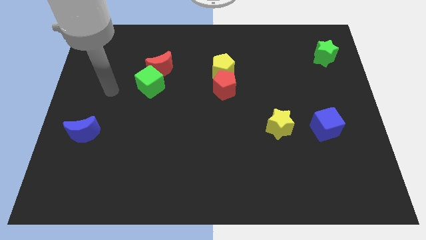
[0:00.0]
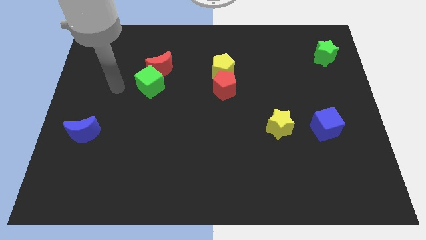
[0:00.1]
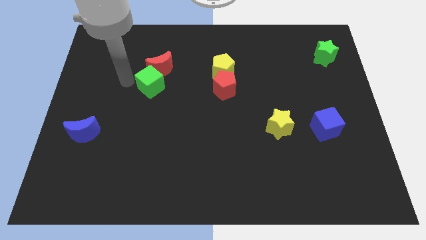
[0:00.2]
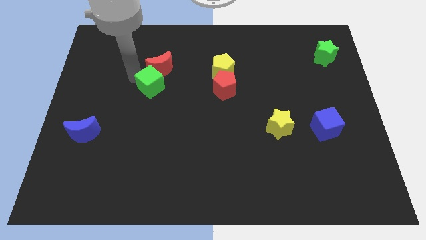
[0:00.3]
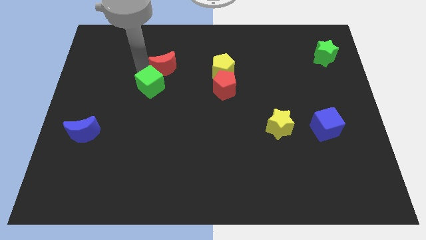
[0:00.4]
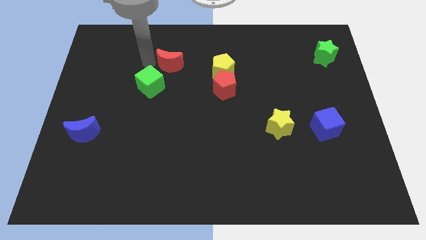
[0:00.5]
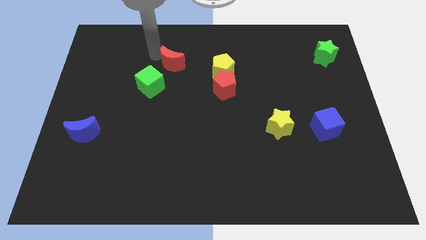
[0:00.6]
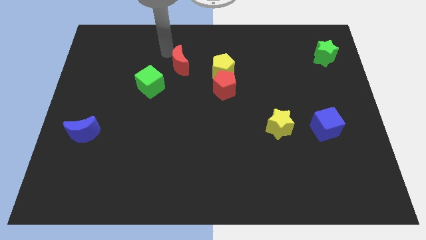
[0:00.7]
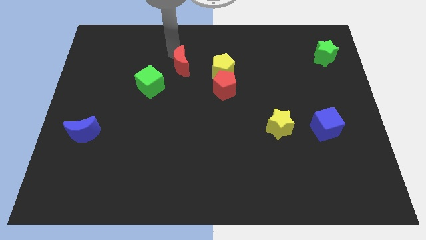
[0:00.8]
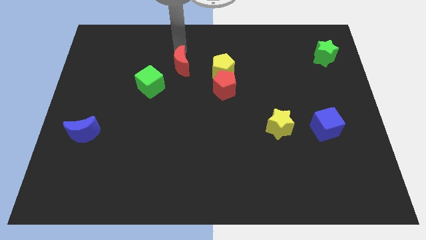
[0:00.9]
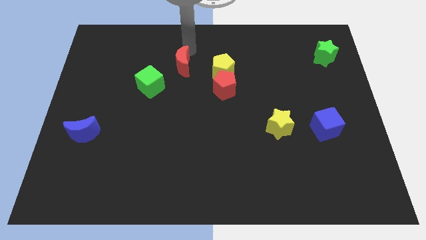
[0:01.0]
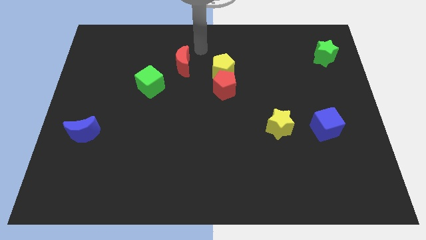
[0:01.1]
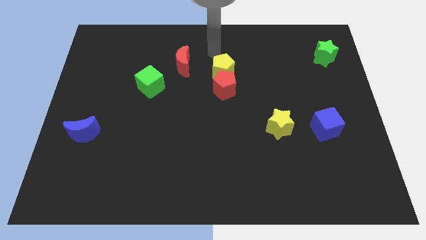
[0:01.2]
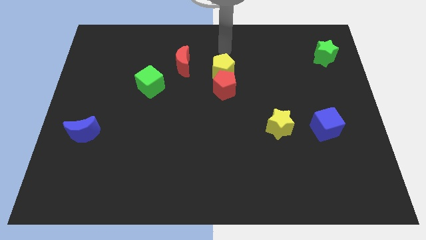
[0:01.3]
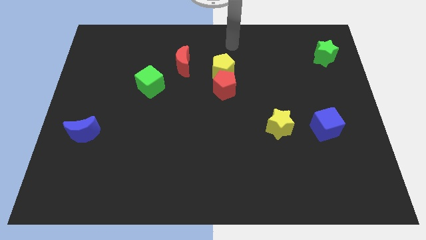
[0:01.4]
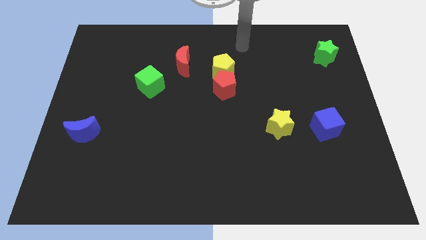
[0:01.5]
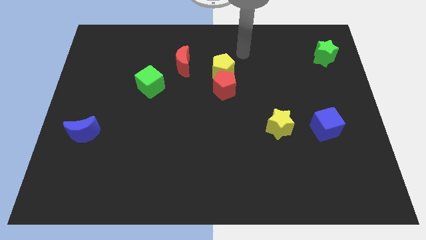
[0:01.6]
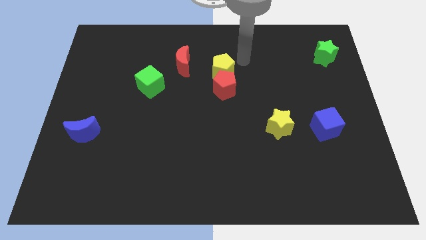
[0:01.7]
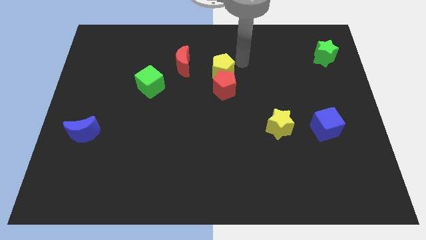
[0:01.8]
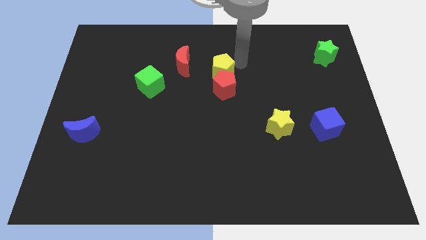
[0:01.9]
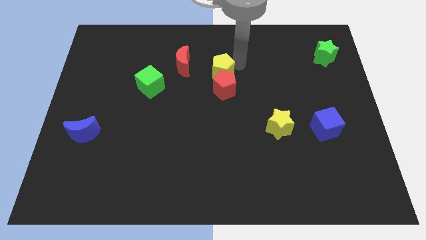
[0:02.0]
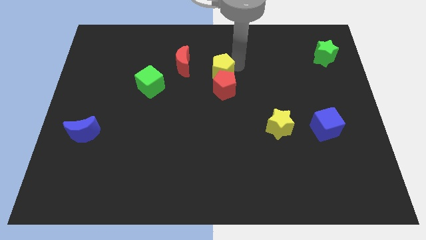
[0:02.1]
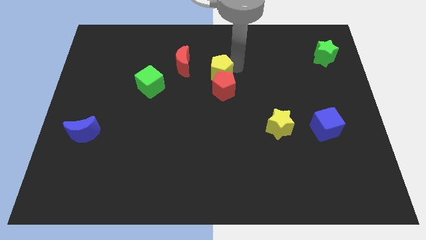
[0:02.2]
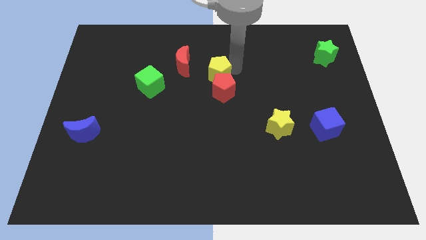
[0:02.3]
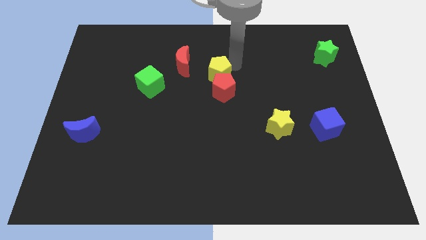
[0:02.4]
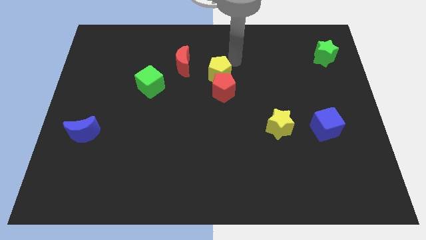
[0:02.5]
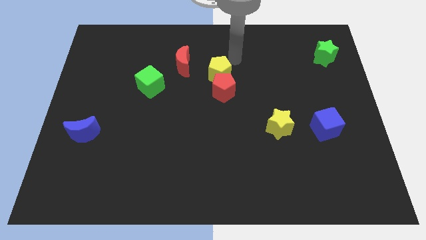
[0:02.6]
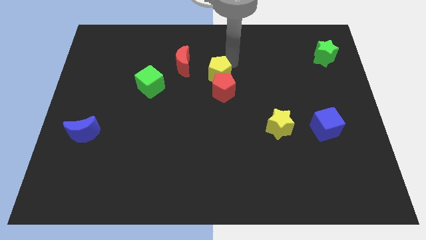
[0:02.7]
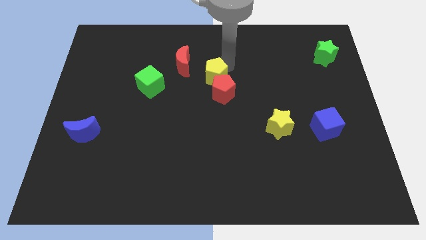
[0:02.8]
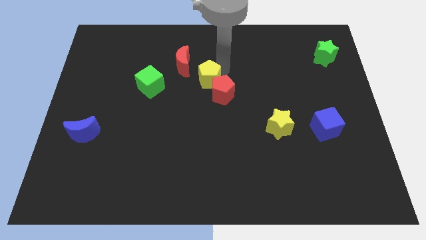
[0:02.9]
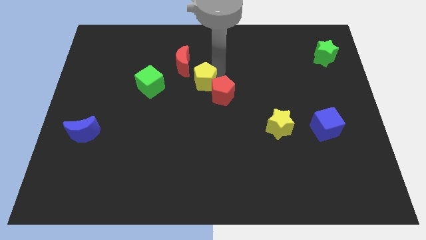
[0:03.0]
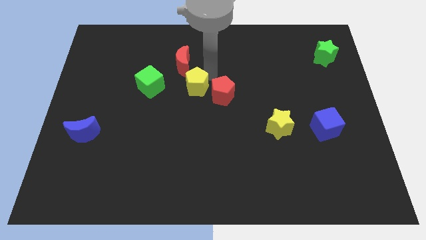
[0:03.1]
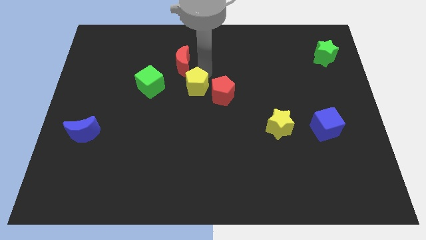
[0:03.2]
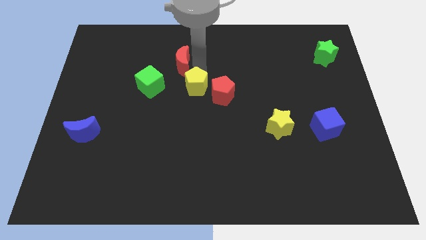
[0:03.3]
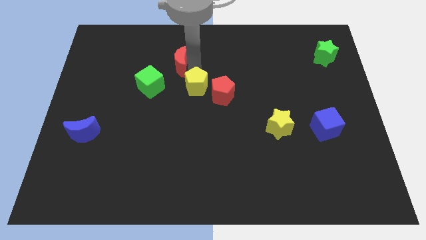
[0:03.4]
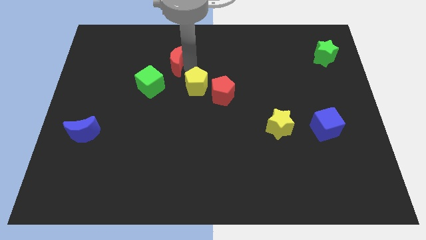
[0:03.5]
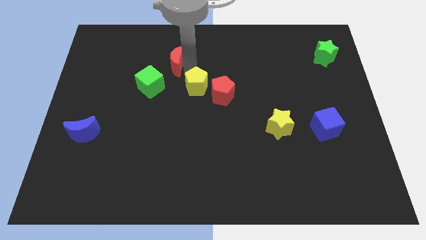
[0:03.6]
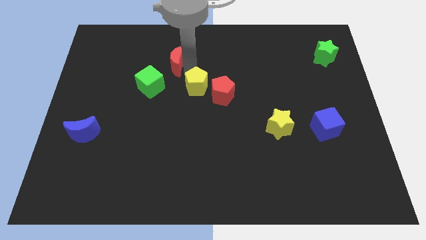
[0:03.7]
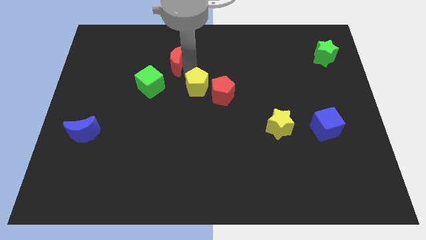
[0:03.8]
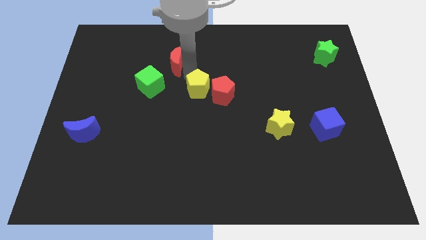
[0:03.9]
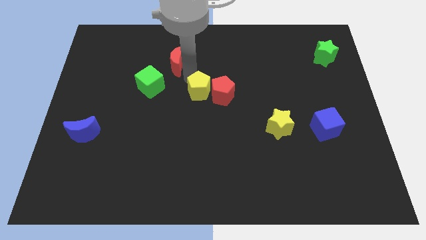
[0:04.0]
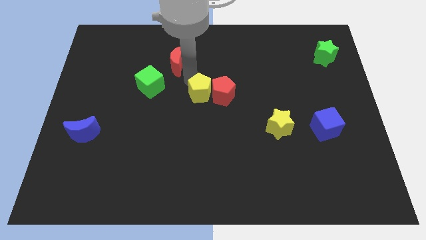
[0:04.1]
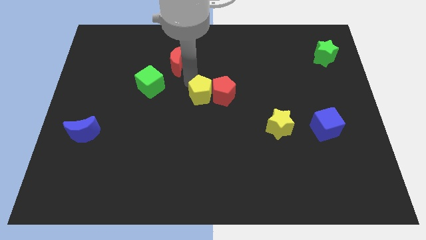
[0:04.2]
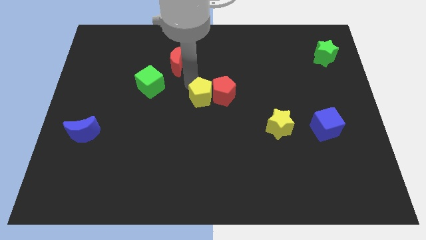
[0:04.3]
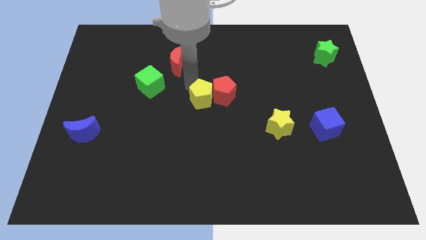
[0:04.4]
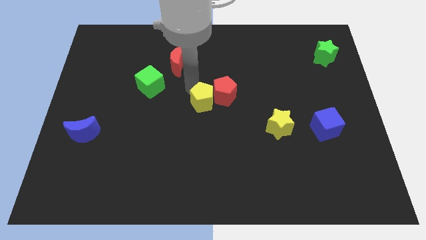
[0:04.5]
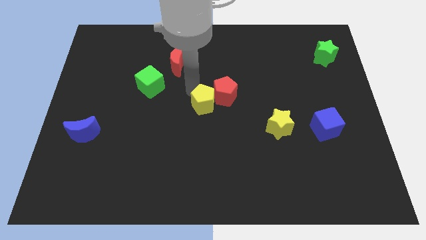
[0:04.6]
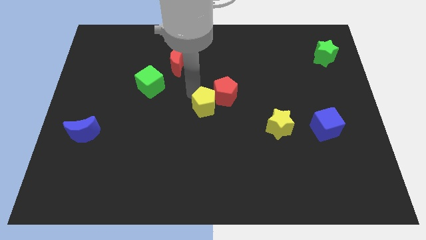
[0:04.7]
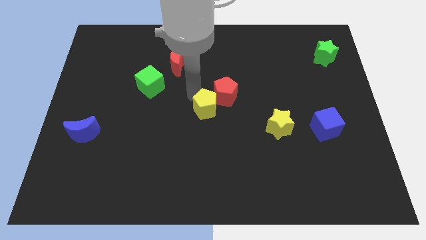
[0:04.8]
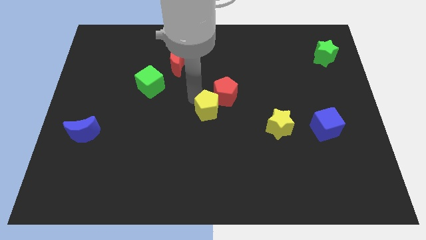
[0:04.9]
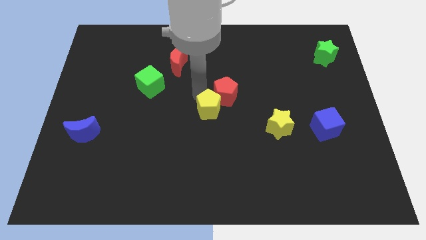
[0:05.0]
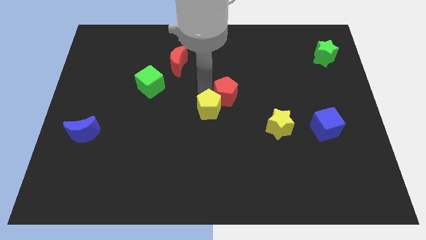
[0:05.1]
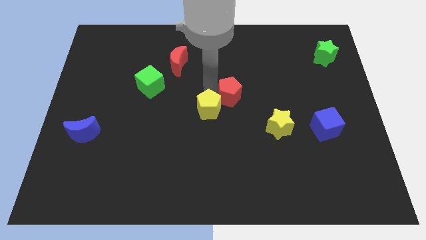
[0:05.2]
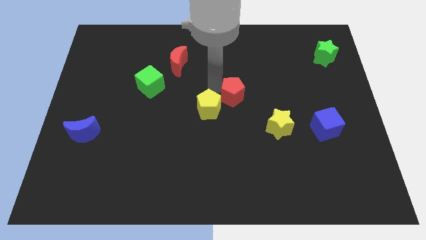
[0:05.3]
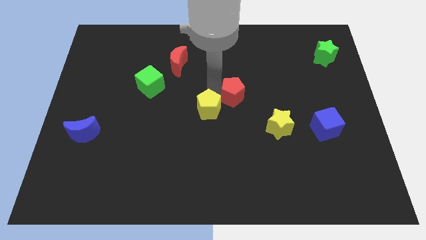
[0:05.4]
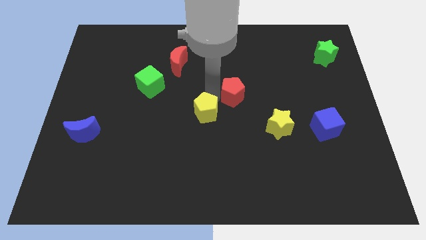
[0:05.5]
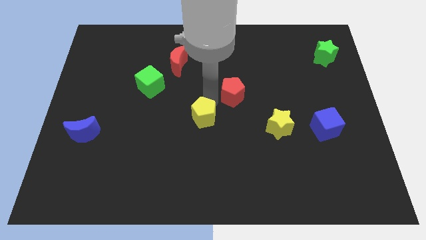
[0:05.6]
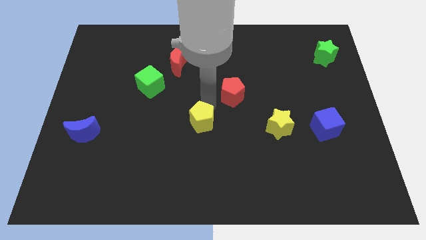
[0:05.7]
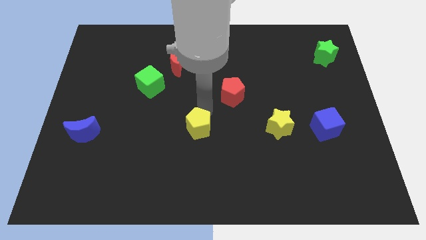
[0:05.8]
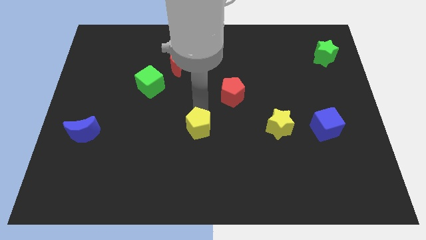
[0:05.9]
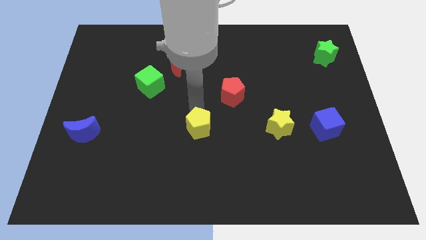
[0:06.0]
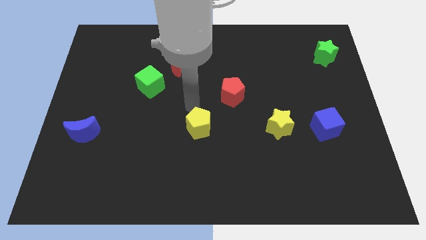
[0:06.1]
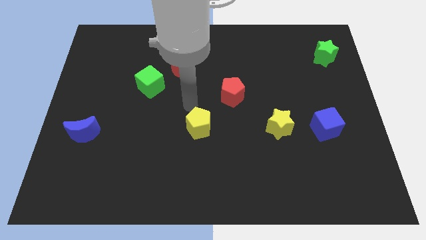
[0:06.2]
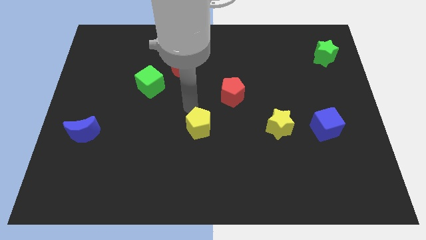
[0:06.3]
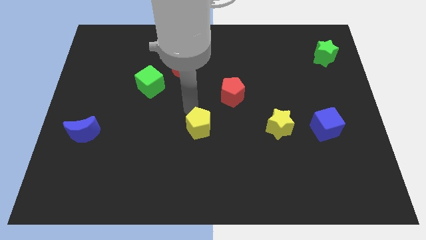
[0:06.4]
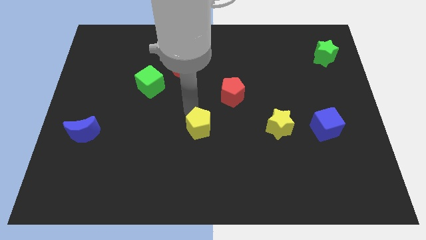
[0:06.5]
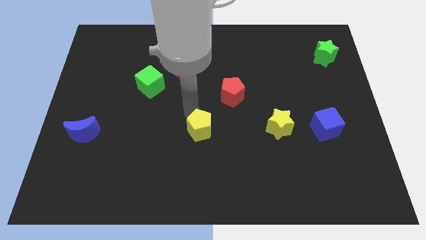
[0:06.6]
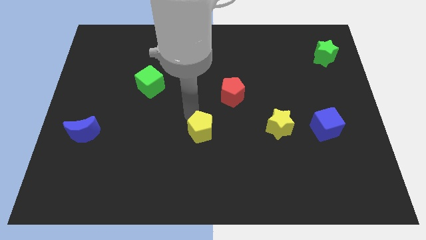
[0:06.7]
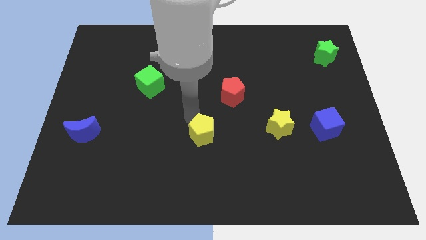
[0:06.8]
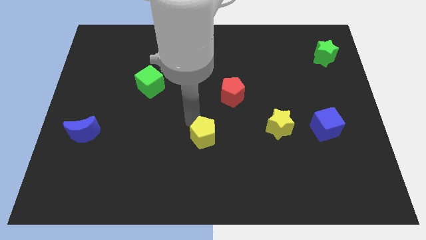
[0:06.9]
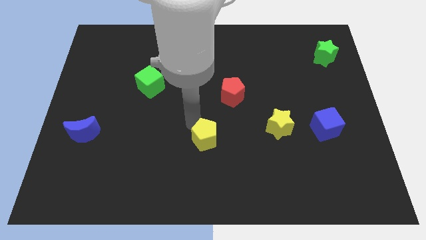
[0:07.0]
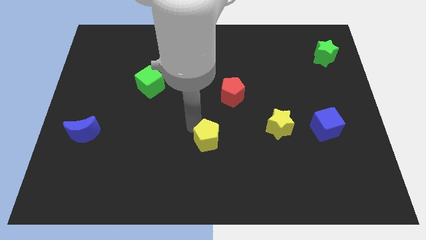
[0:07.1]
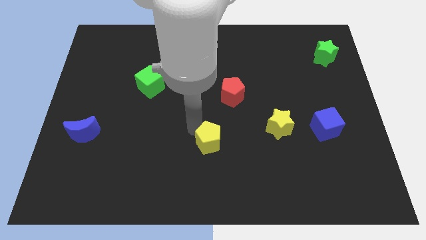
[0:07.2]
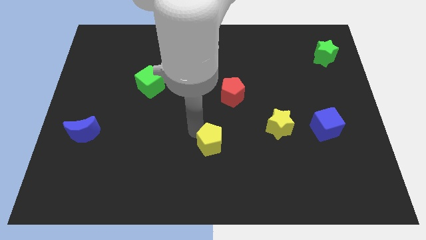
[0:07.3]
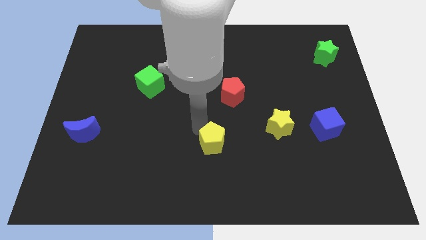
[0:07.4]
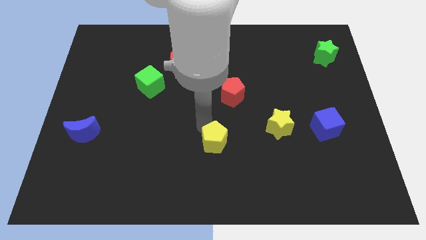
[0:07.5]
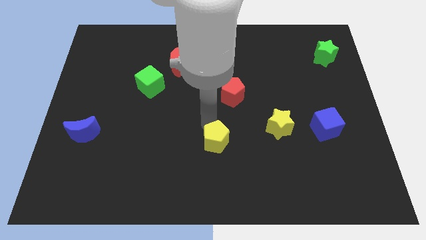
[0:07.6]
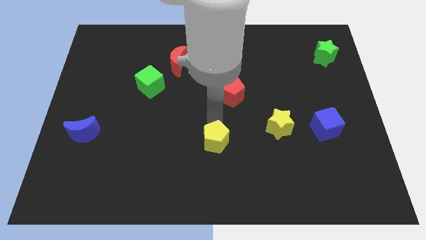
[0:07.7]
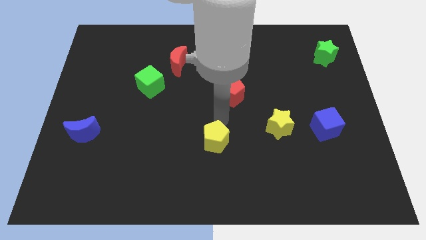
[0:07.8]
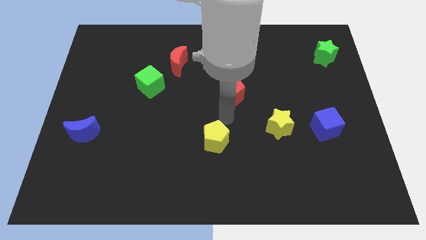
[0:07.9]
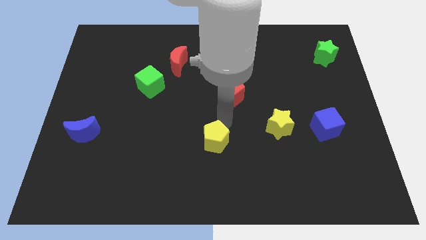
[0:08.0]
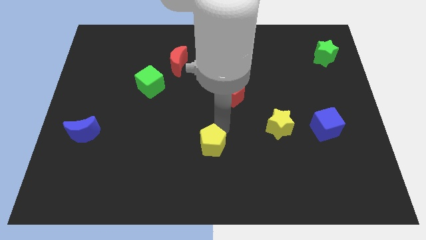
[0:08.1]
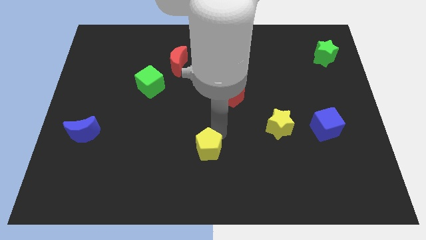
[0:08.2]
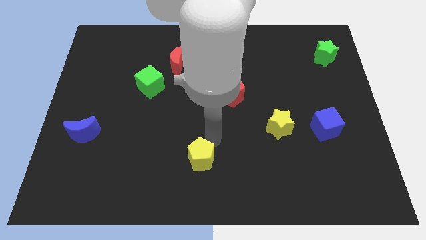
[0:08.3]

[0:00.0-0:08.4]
put the yellow pentagon to the bottom side
